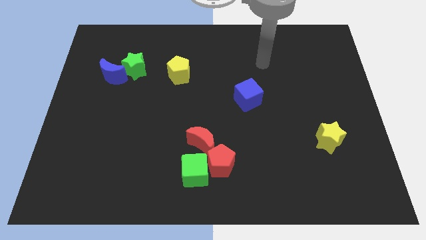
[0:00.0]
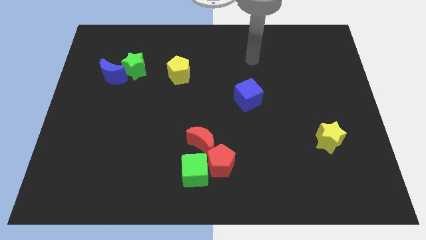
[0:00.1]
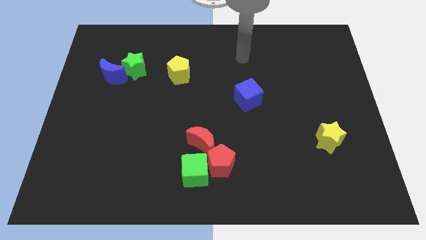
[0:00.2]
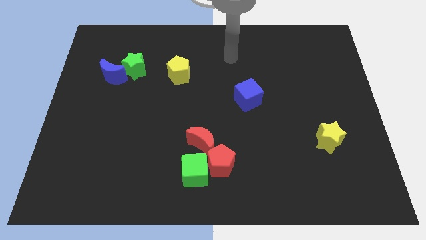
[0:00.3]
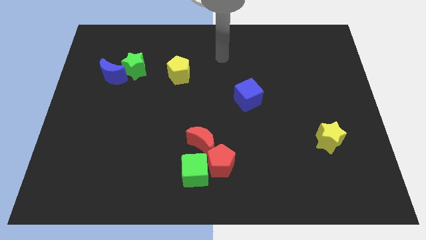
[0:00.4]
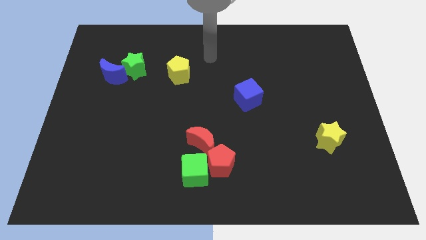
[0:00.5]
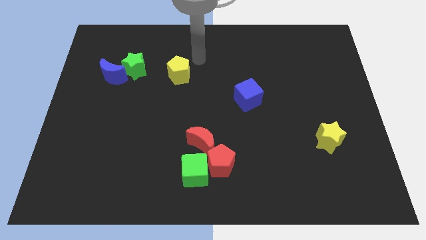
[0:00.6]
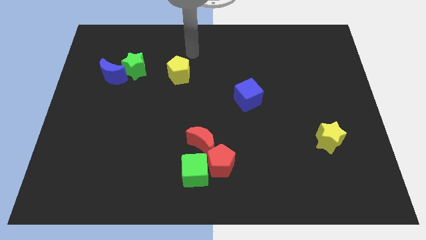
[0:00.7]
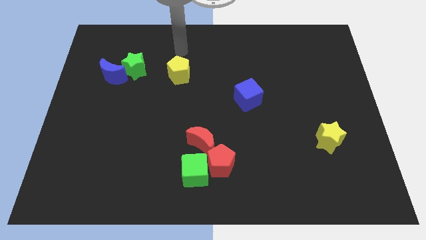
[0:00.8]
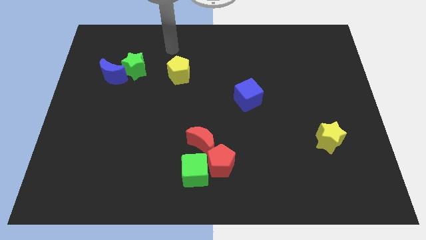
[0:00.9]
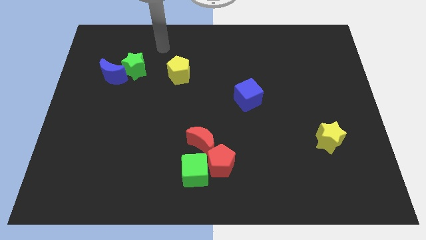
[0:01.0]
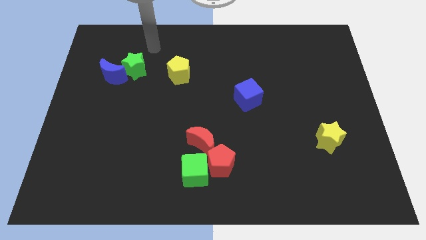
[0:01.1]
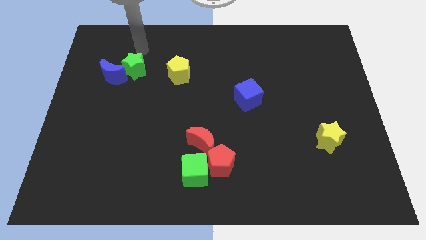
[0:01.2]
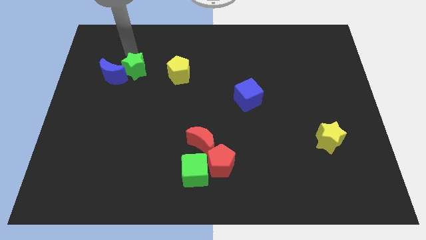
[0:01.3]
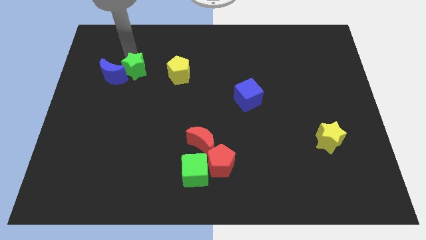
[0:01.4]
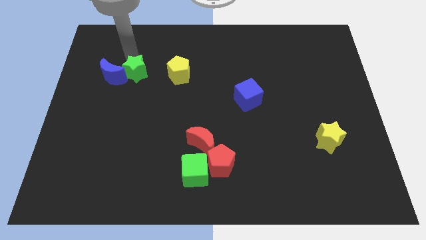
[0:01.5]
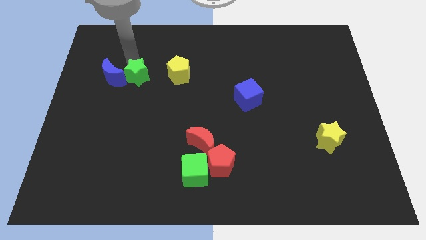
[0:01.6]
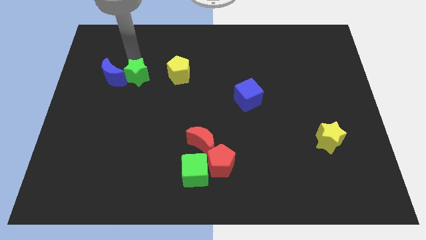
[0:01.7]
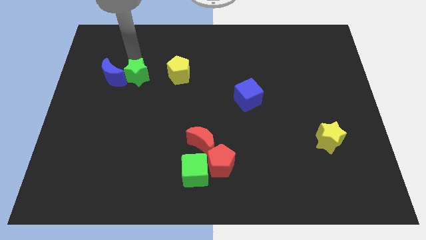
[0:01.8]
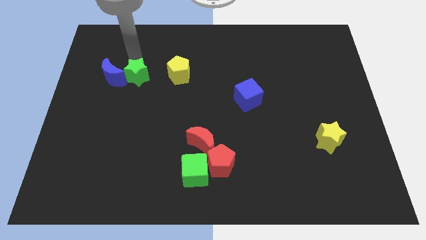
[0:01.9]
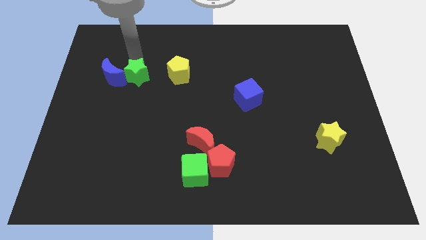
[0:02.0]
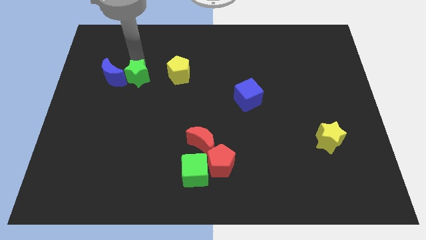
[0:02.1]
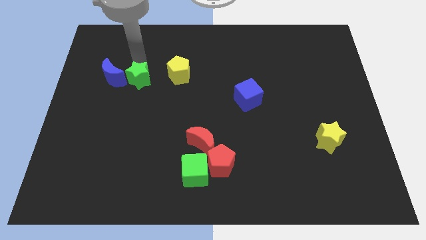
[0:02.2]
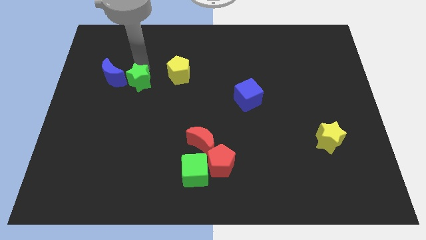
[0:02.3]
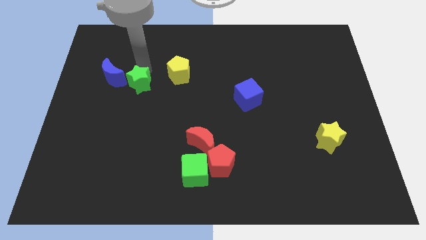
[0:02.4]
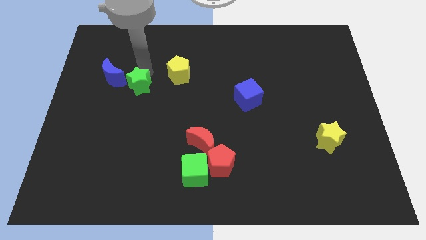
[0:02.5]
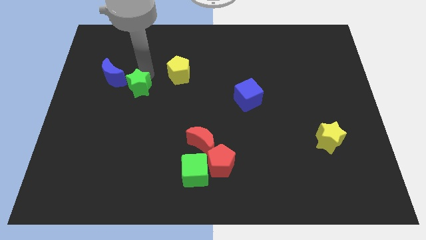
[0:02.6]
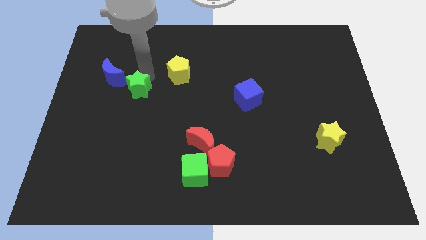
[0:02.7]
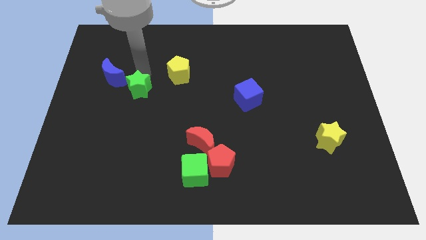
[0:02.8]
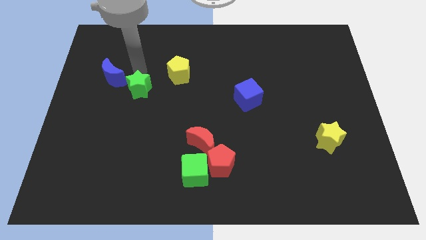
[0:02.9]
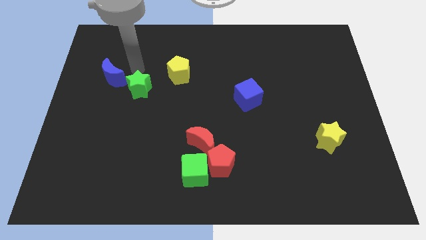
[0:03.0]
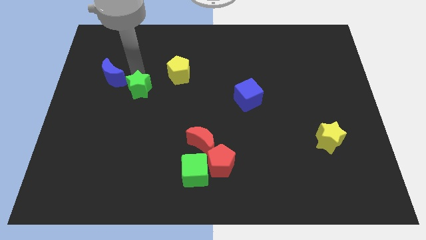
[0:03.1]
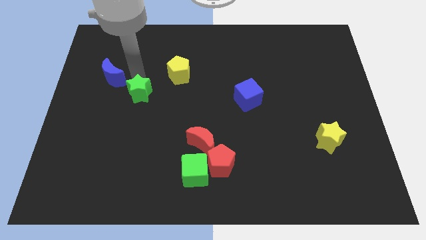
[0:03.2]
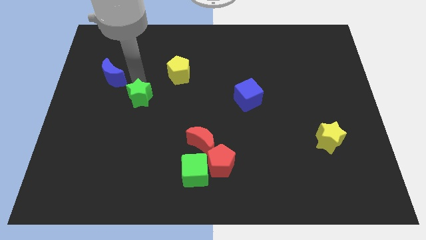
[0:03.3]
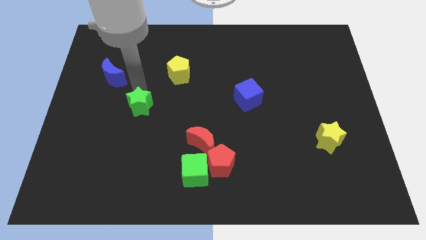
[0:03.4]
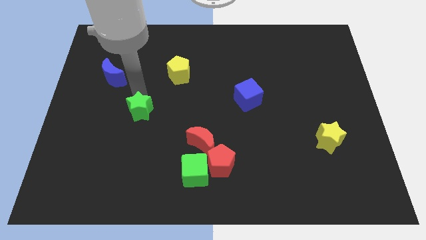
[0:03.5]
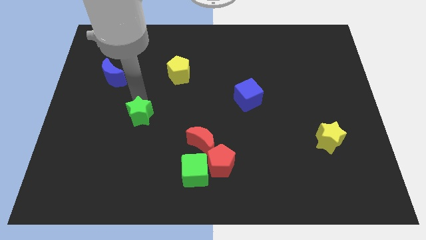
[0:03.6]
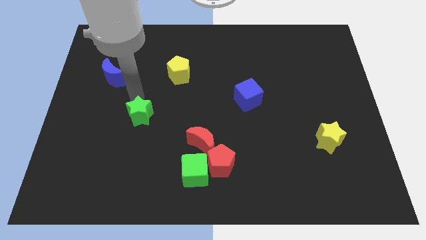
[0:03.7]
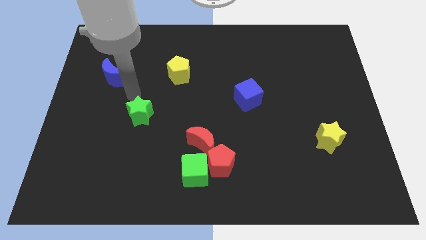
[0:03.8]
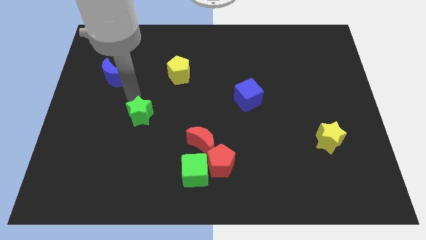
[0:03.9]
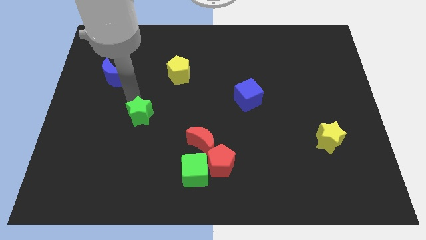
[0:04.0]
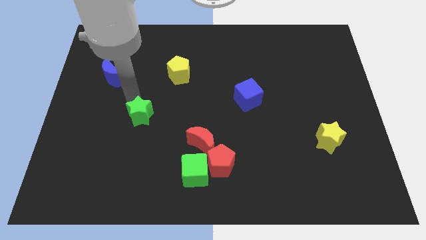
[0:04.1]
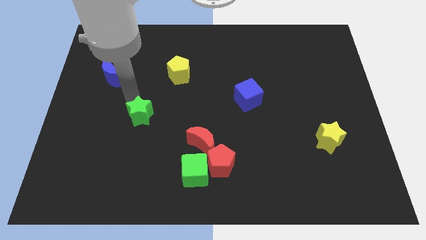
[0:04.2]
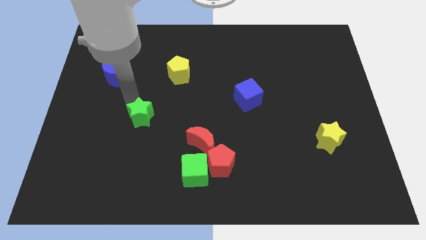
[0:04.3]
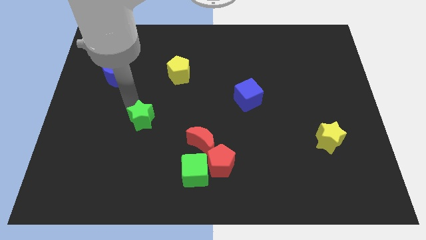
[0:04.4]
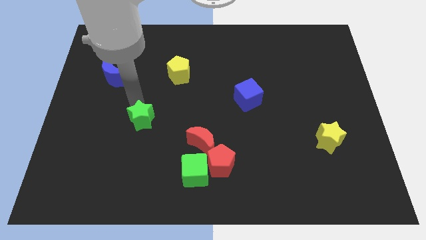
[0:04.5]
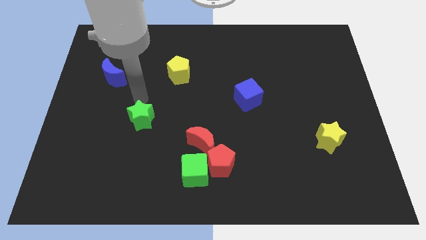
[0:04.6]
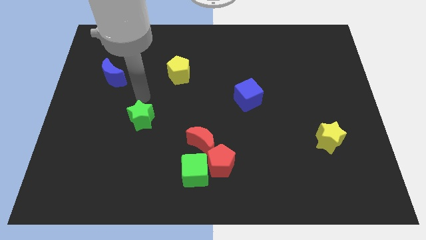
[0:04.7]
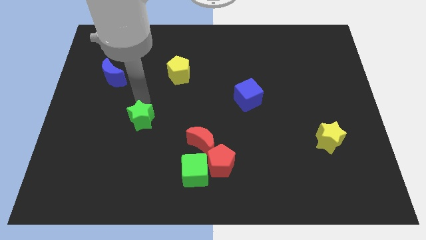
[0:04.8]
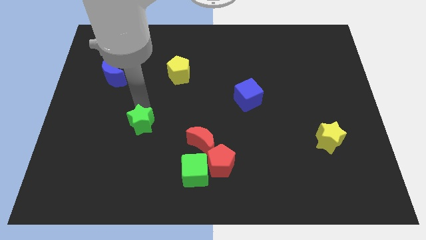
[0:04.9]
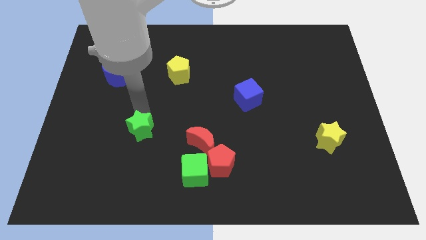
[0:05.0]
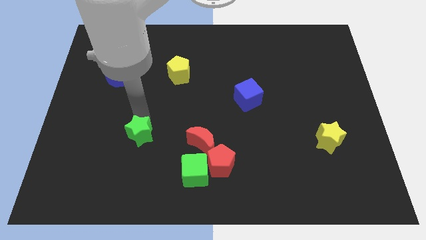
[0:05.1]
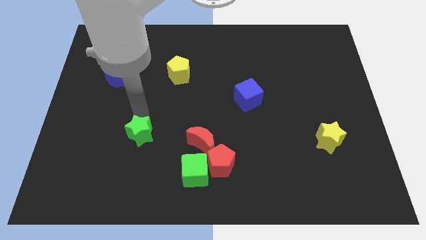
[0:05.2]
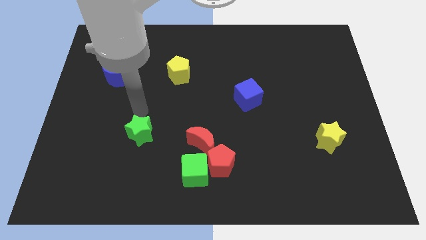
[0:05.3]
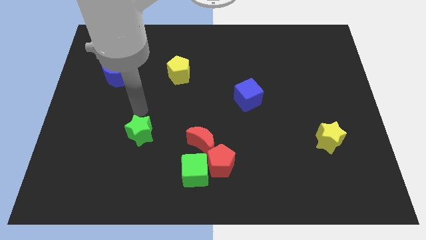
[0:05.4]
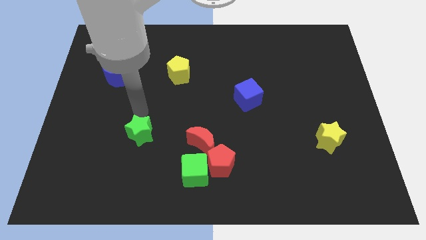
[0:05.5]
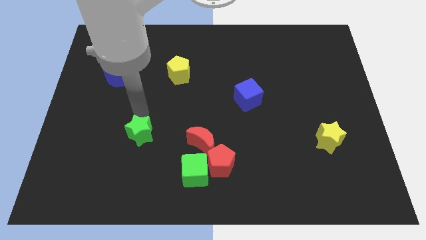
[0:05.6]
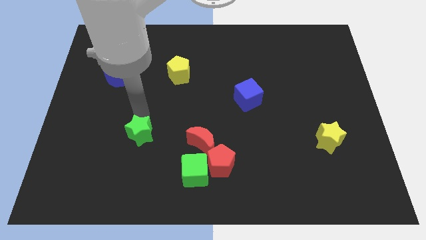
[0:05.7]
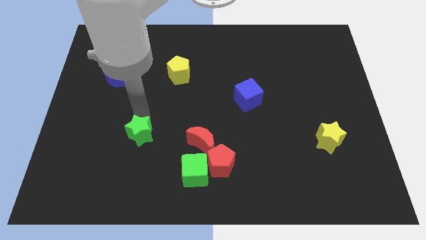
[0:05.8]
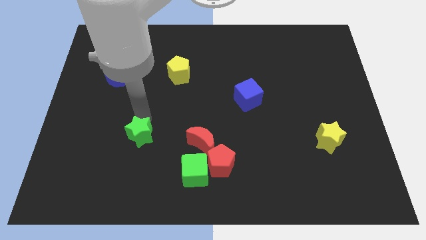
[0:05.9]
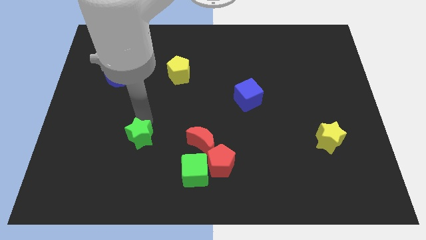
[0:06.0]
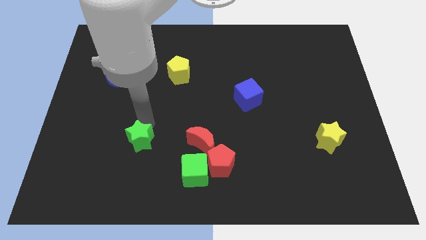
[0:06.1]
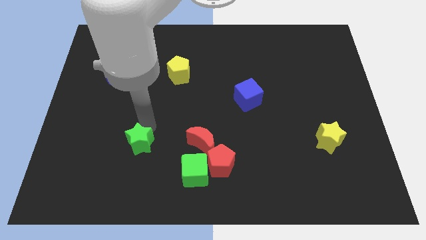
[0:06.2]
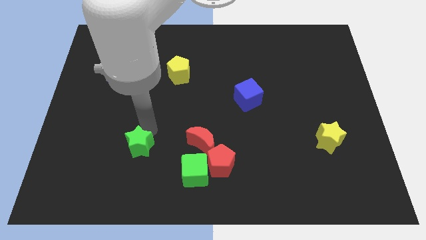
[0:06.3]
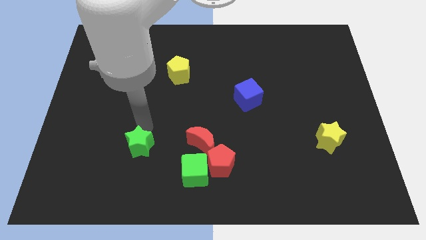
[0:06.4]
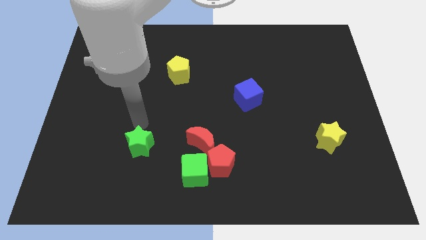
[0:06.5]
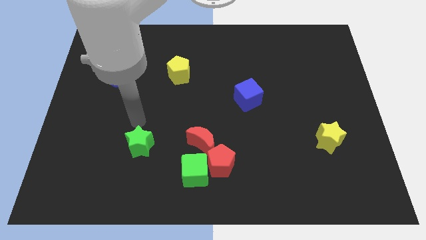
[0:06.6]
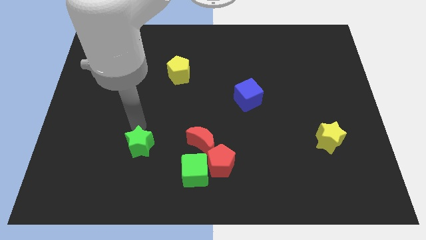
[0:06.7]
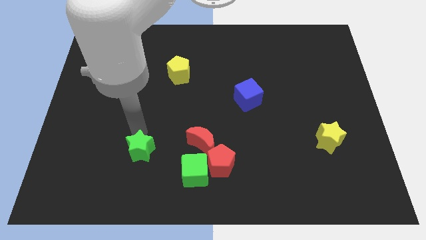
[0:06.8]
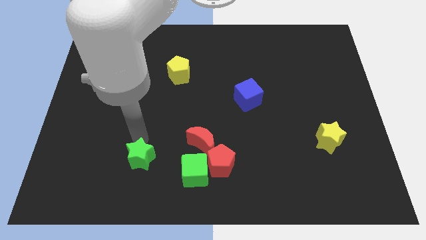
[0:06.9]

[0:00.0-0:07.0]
push the green star to the left of the green cube
